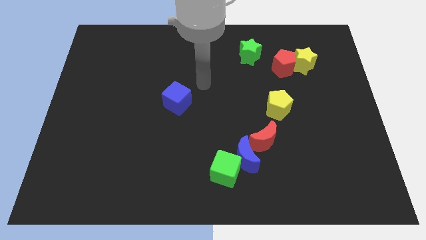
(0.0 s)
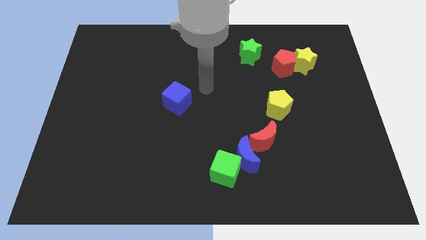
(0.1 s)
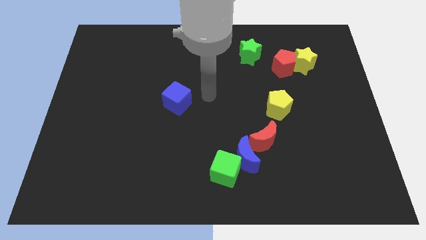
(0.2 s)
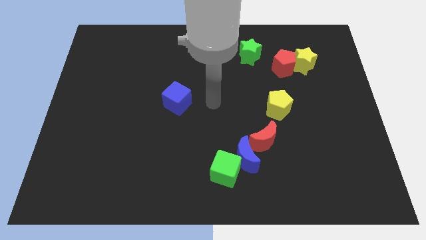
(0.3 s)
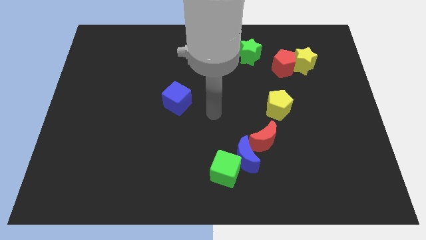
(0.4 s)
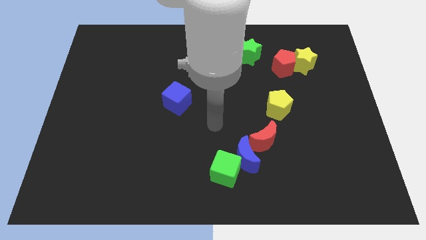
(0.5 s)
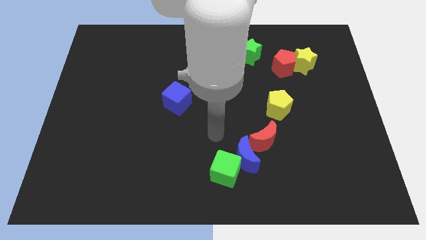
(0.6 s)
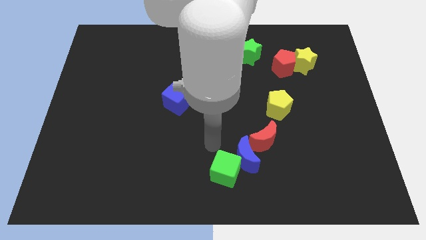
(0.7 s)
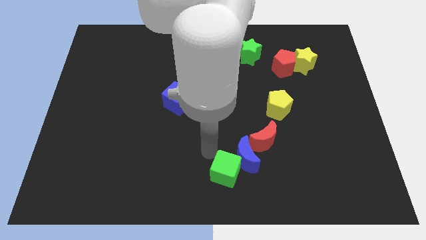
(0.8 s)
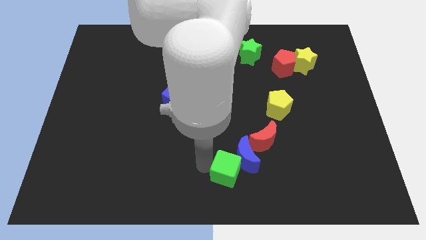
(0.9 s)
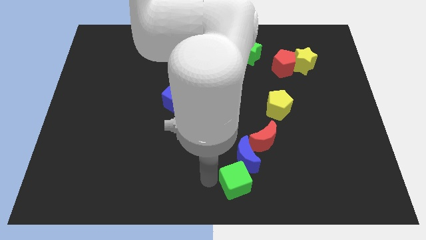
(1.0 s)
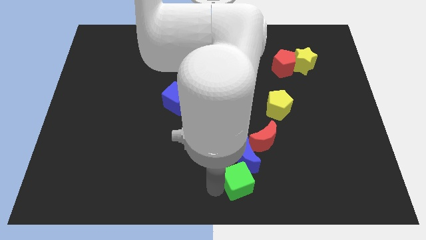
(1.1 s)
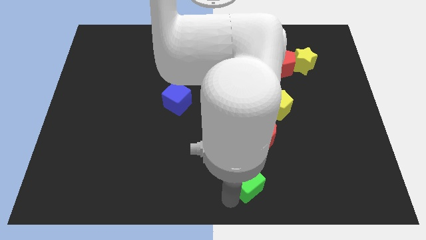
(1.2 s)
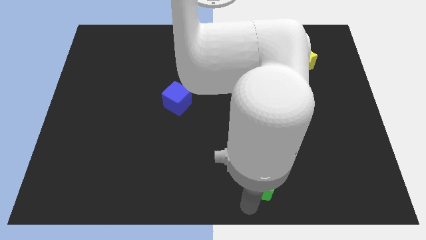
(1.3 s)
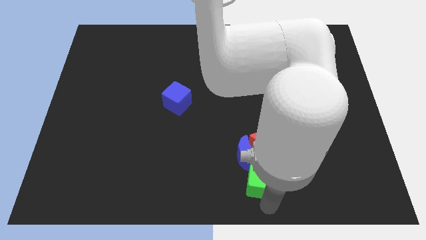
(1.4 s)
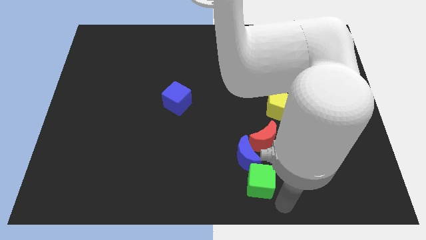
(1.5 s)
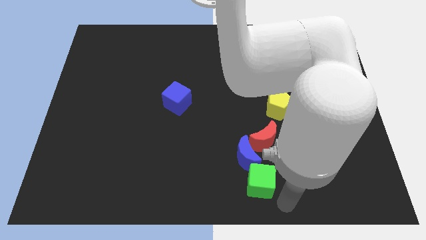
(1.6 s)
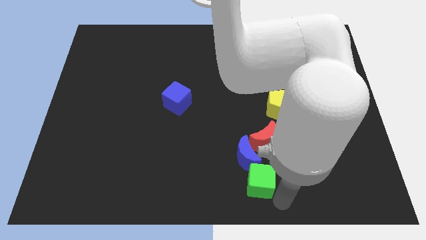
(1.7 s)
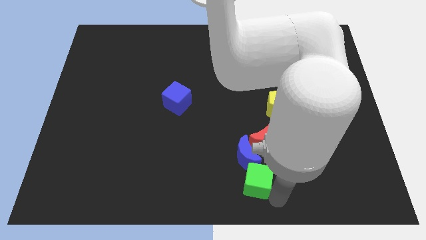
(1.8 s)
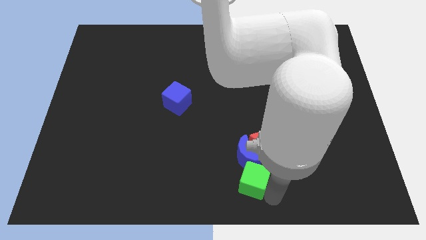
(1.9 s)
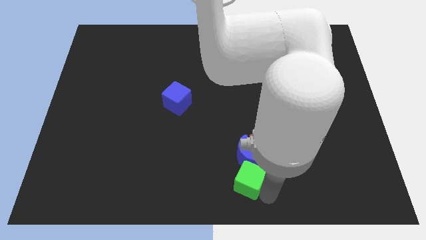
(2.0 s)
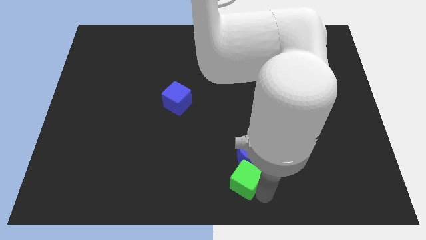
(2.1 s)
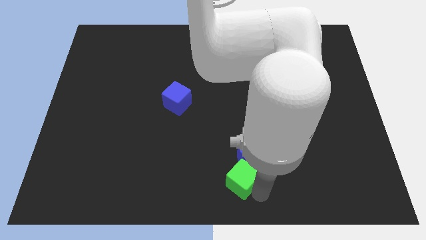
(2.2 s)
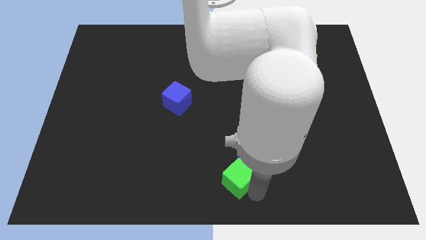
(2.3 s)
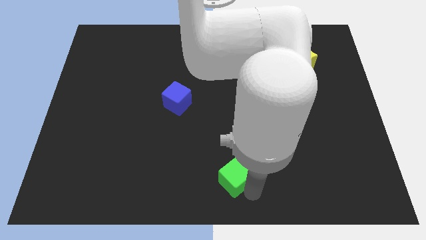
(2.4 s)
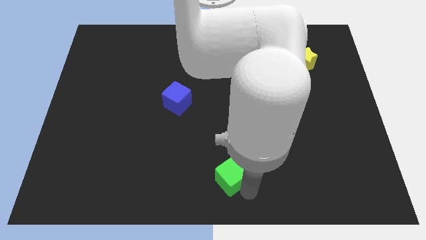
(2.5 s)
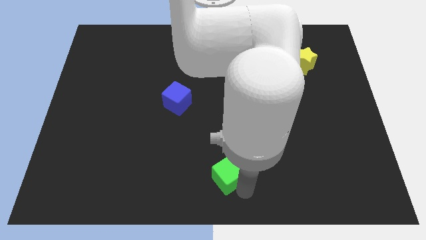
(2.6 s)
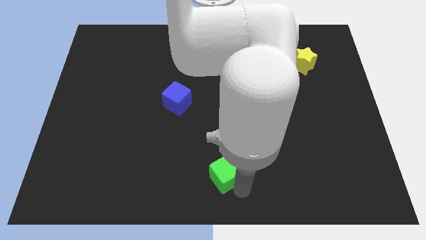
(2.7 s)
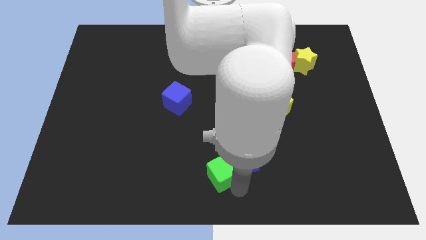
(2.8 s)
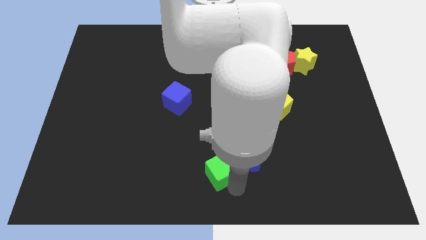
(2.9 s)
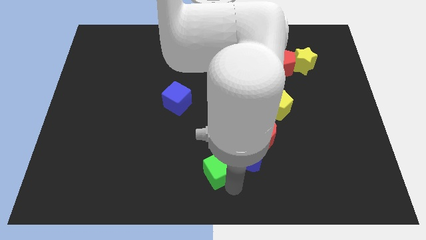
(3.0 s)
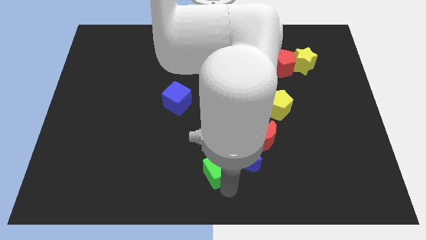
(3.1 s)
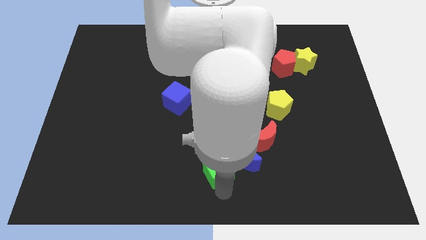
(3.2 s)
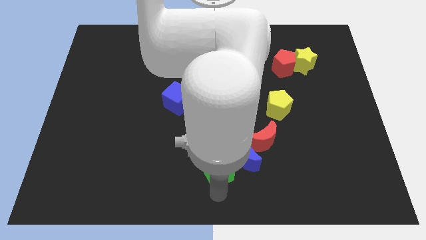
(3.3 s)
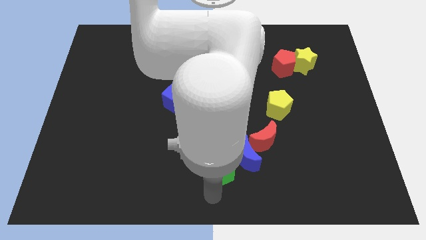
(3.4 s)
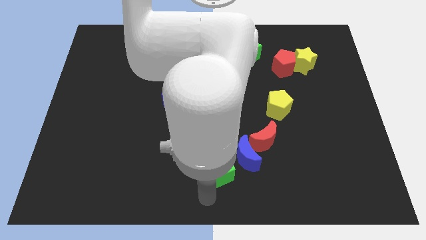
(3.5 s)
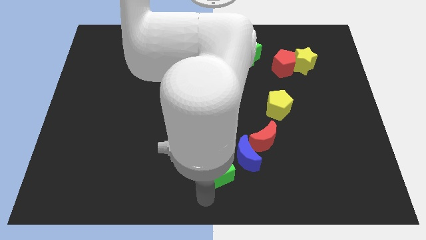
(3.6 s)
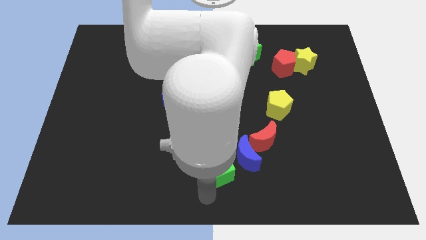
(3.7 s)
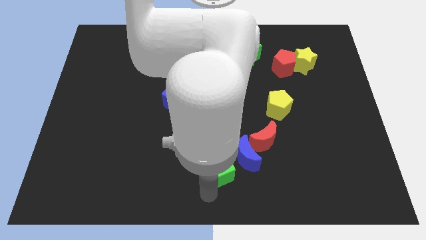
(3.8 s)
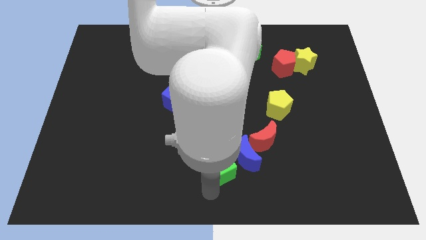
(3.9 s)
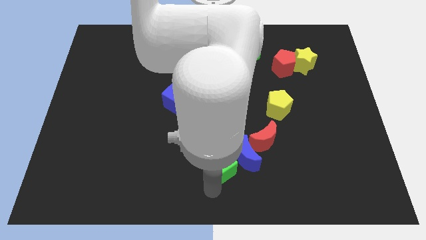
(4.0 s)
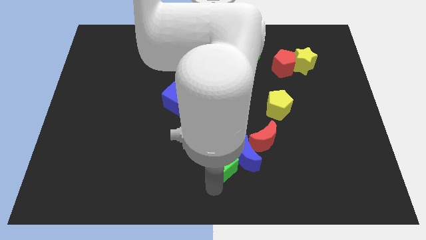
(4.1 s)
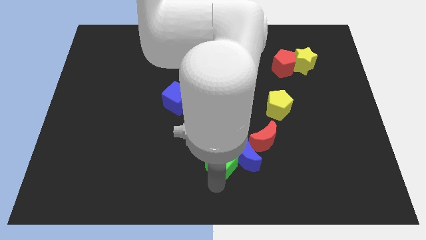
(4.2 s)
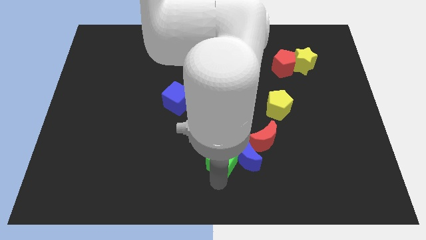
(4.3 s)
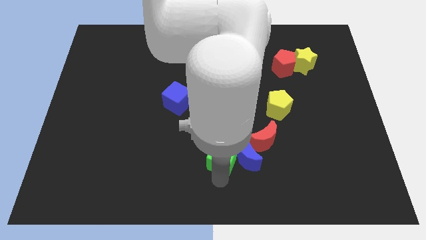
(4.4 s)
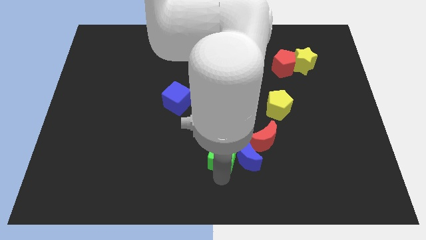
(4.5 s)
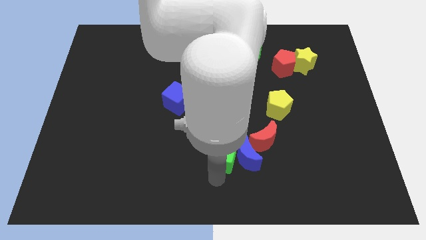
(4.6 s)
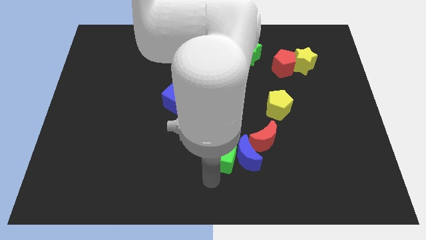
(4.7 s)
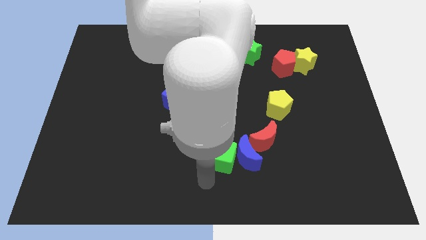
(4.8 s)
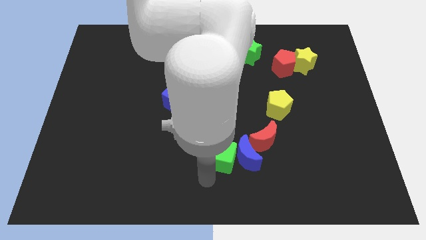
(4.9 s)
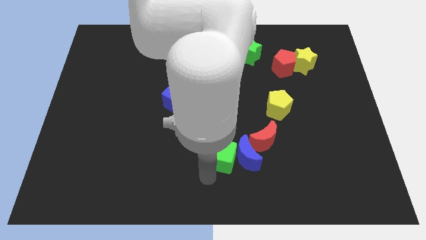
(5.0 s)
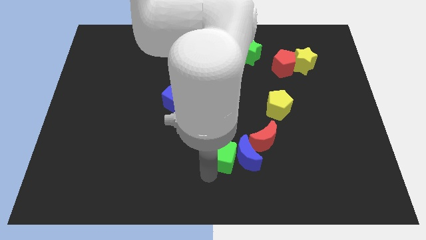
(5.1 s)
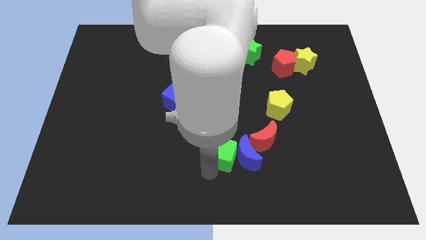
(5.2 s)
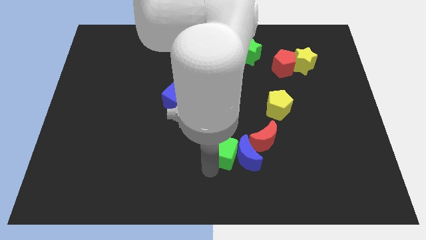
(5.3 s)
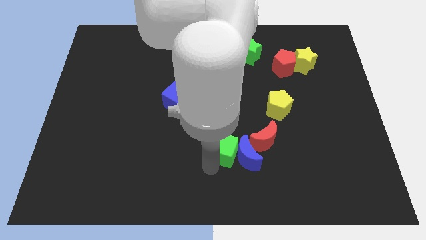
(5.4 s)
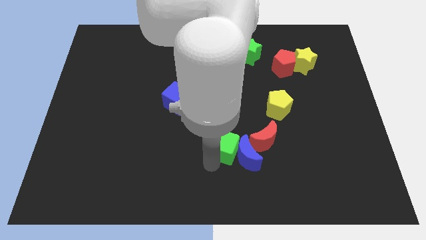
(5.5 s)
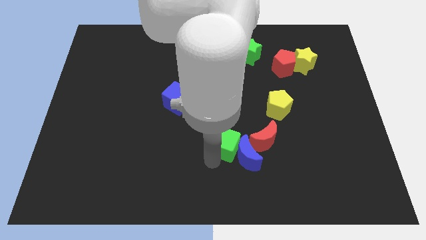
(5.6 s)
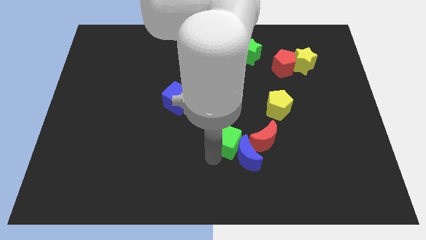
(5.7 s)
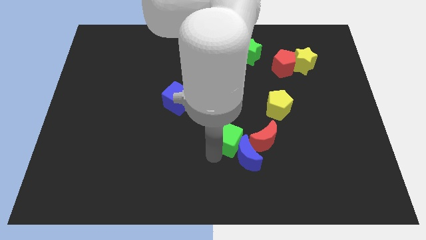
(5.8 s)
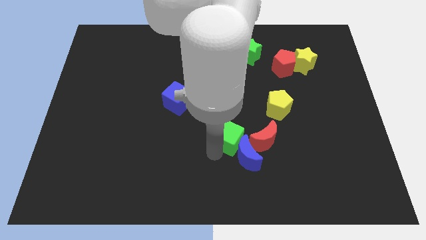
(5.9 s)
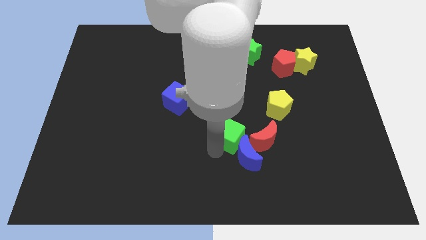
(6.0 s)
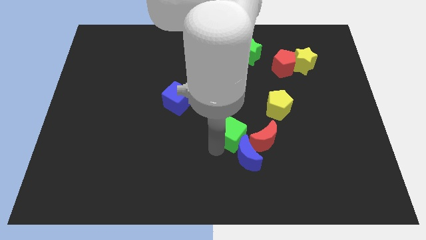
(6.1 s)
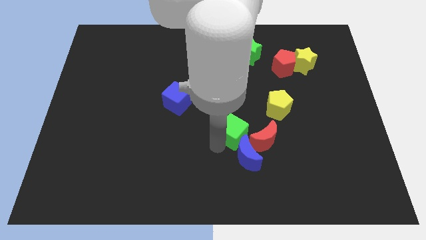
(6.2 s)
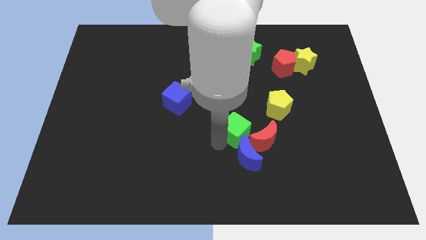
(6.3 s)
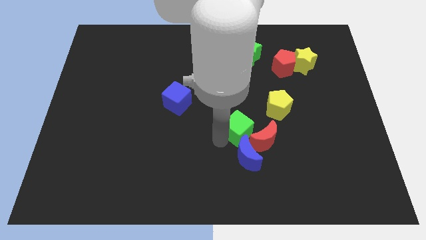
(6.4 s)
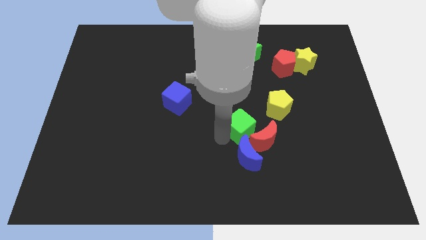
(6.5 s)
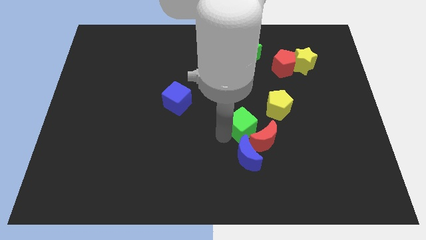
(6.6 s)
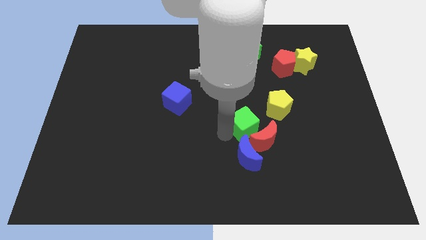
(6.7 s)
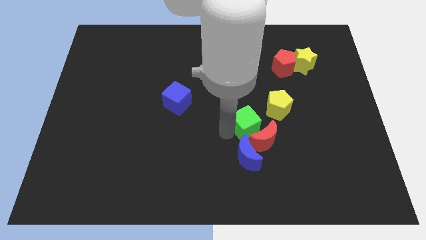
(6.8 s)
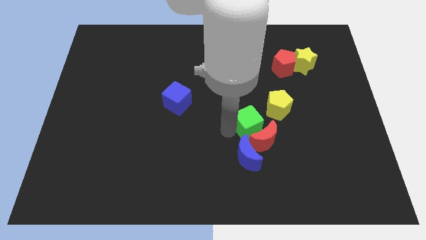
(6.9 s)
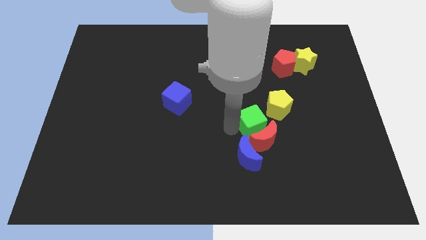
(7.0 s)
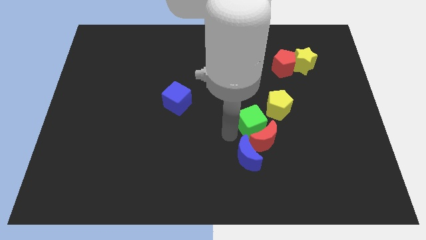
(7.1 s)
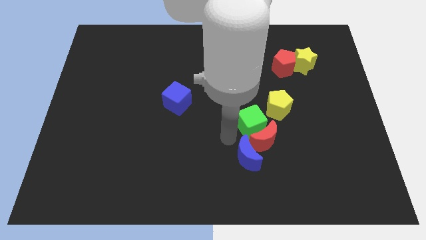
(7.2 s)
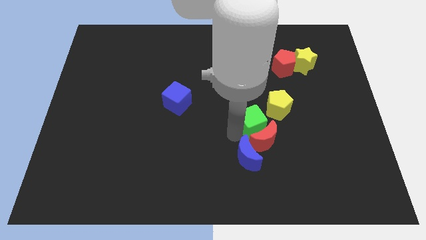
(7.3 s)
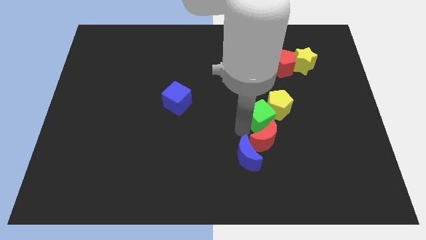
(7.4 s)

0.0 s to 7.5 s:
push the green cube close to the yellow pentagon
